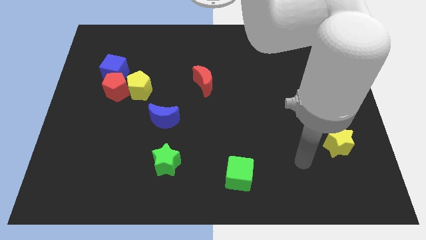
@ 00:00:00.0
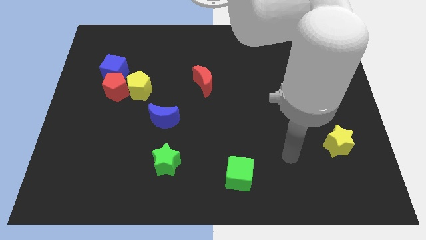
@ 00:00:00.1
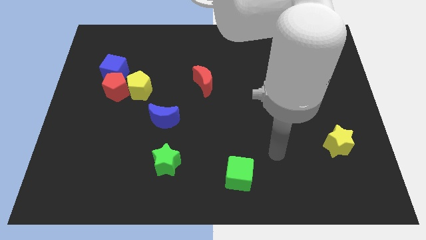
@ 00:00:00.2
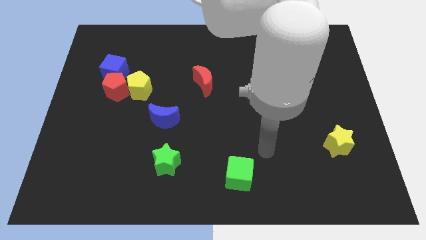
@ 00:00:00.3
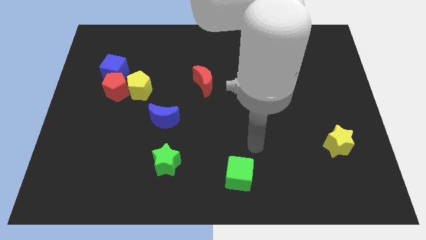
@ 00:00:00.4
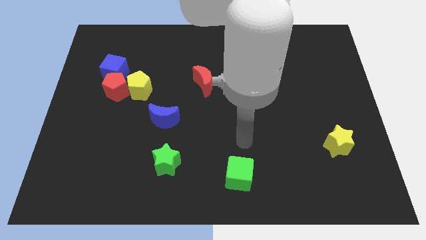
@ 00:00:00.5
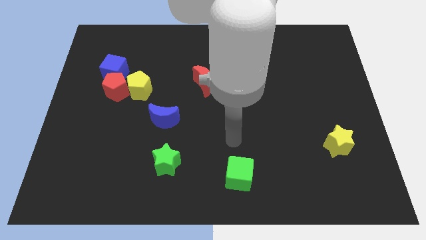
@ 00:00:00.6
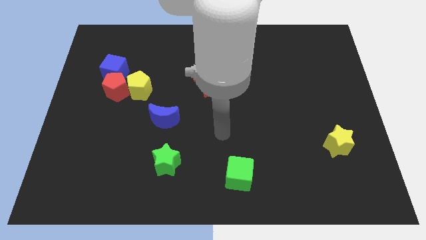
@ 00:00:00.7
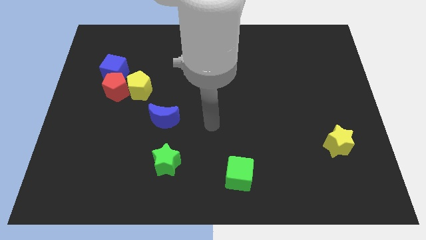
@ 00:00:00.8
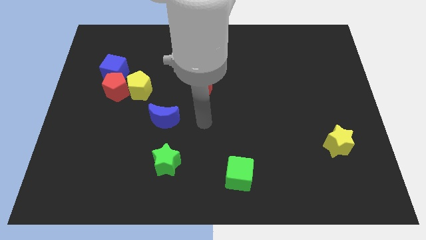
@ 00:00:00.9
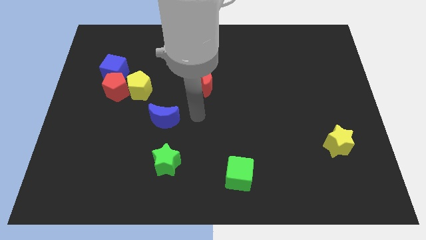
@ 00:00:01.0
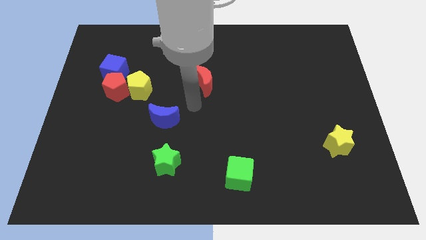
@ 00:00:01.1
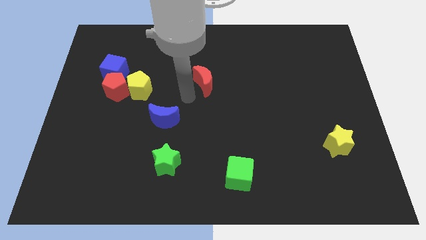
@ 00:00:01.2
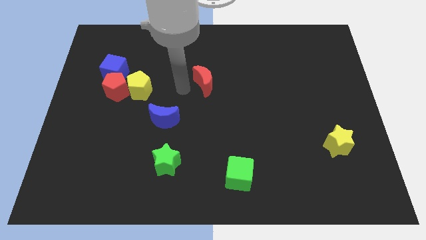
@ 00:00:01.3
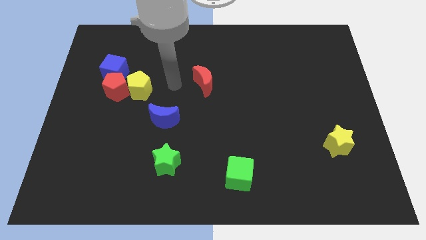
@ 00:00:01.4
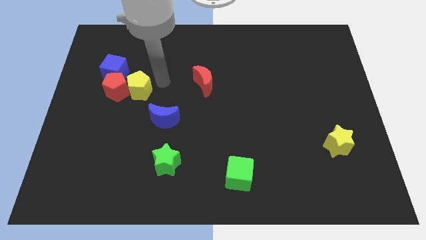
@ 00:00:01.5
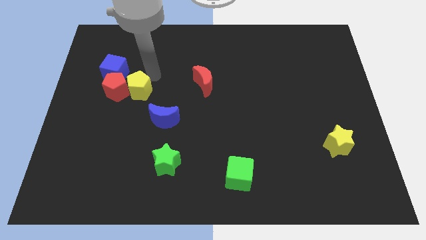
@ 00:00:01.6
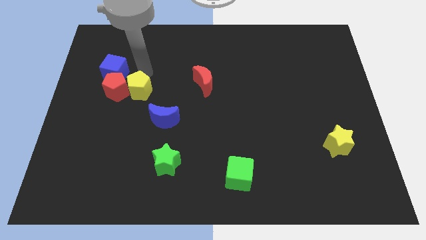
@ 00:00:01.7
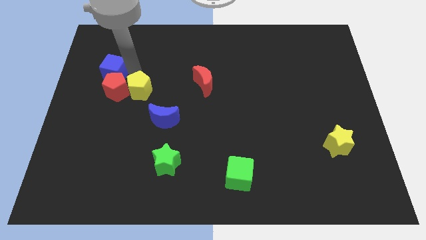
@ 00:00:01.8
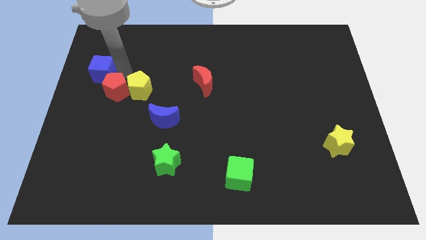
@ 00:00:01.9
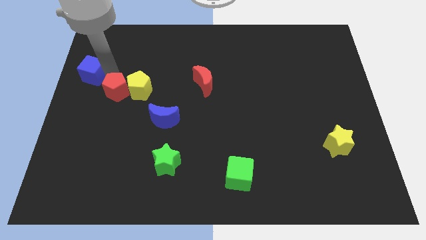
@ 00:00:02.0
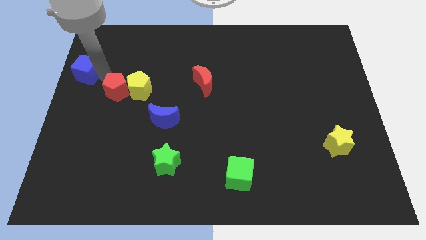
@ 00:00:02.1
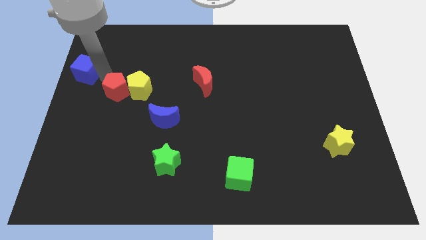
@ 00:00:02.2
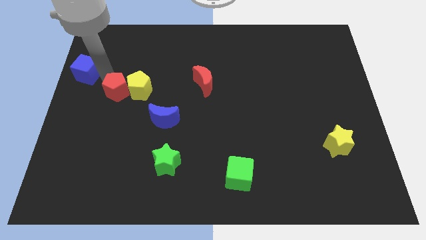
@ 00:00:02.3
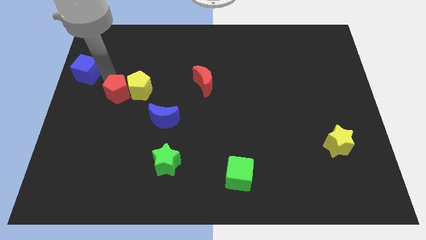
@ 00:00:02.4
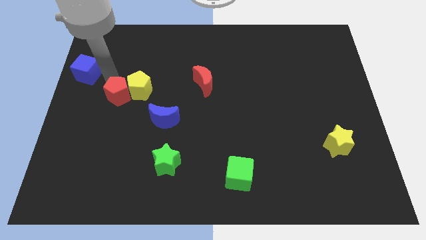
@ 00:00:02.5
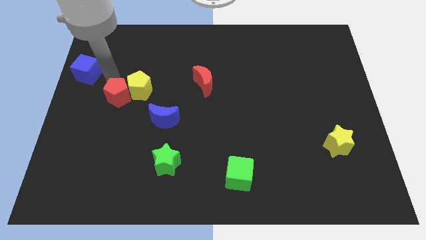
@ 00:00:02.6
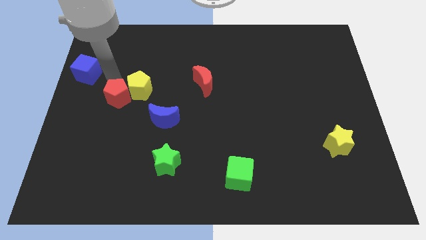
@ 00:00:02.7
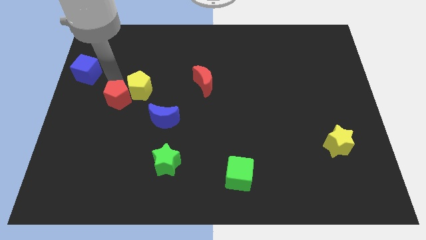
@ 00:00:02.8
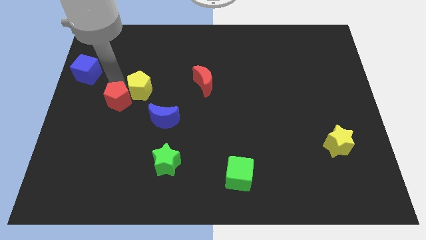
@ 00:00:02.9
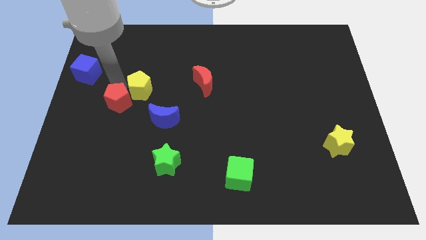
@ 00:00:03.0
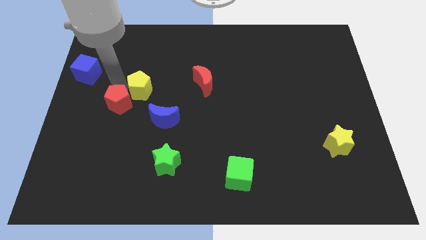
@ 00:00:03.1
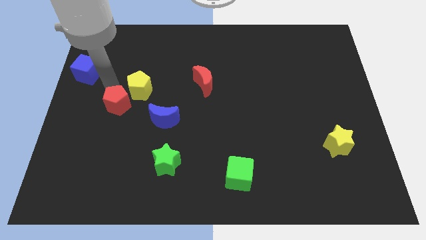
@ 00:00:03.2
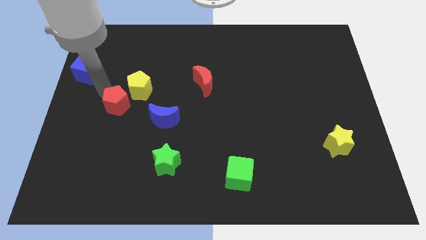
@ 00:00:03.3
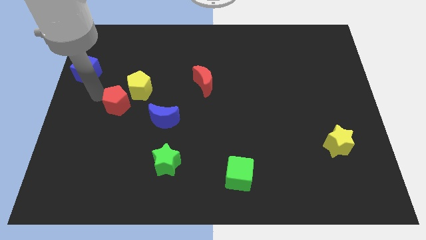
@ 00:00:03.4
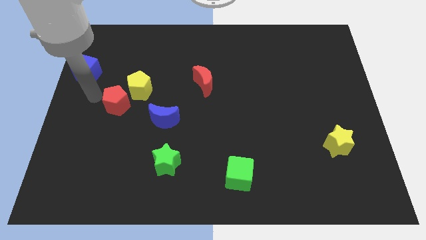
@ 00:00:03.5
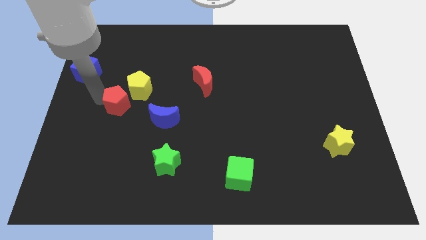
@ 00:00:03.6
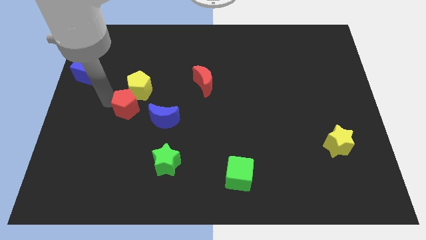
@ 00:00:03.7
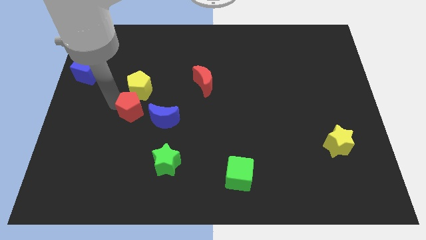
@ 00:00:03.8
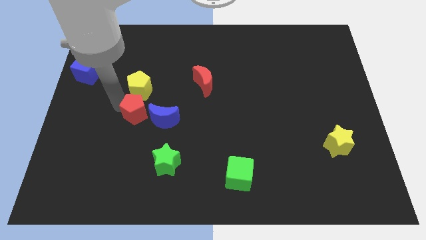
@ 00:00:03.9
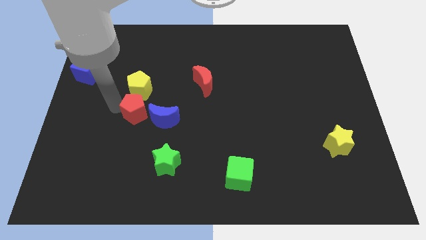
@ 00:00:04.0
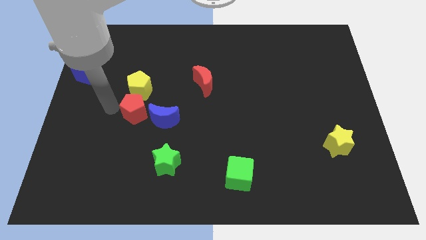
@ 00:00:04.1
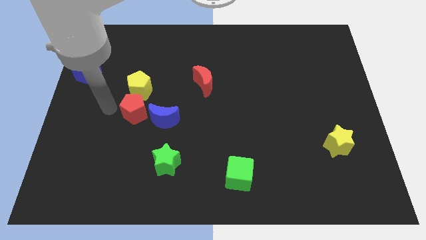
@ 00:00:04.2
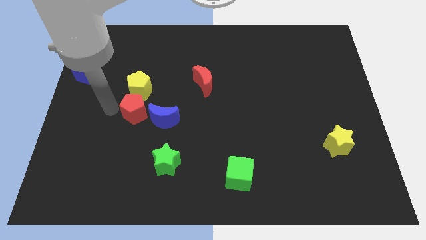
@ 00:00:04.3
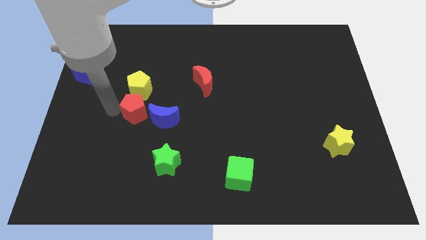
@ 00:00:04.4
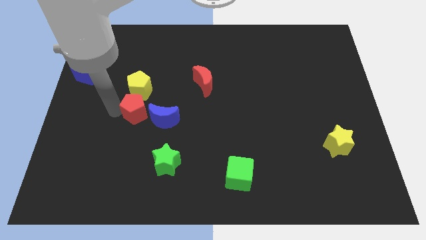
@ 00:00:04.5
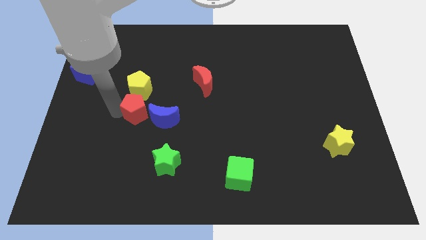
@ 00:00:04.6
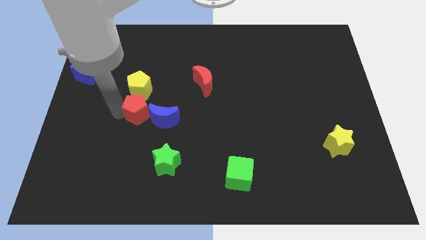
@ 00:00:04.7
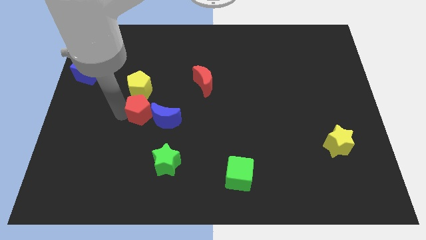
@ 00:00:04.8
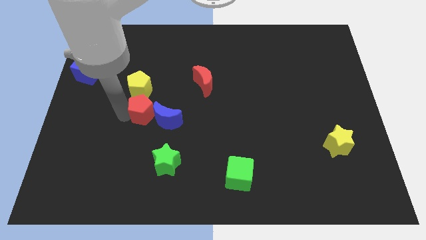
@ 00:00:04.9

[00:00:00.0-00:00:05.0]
put the red pentagon close to the blue moon

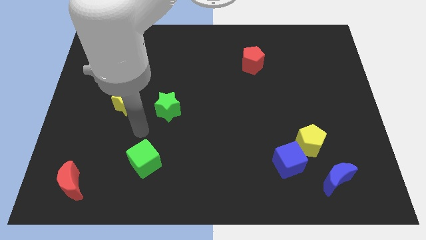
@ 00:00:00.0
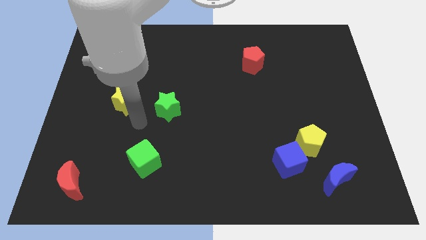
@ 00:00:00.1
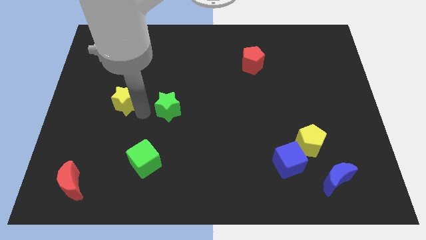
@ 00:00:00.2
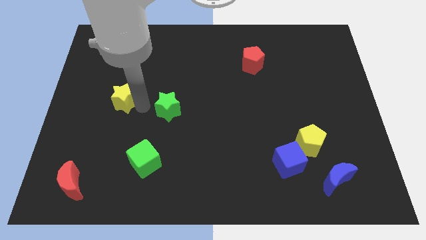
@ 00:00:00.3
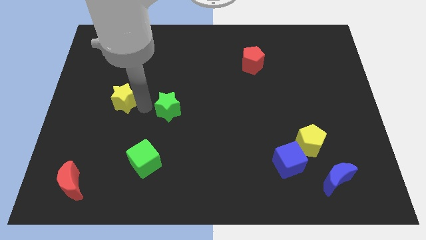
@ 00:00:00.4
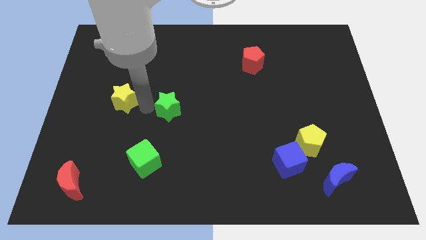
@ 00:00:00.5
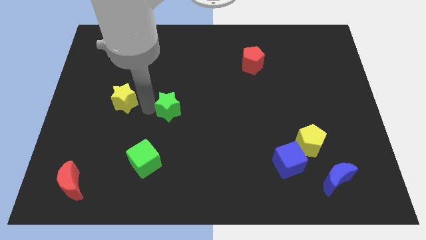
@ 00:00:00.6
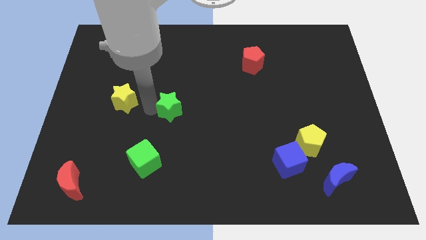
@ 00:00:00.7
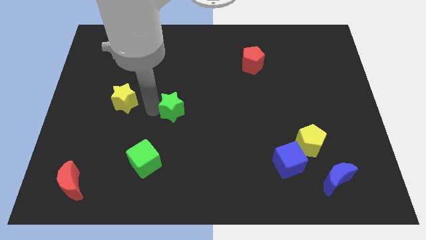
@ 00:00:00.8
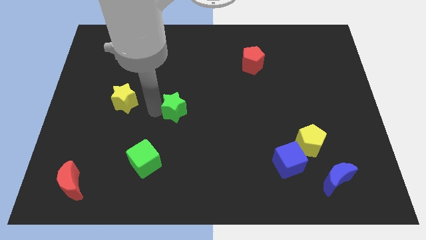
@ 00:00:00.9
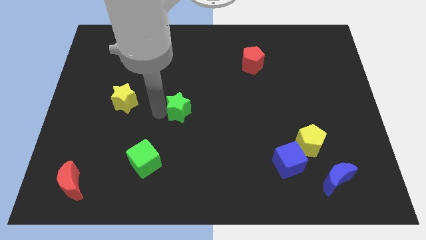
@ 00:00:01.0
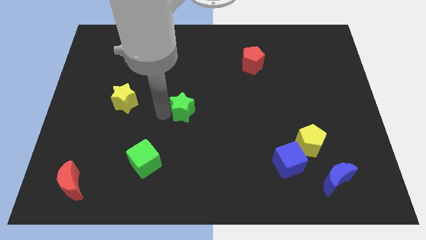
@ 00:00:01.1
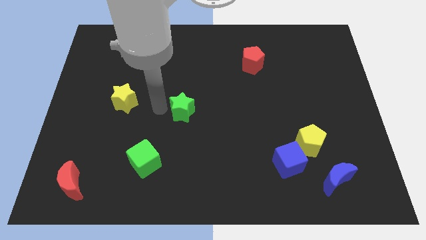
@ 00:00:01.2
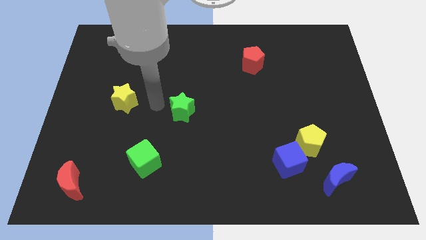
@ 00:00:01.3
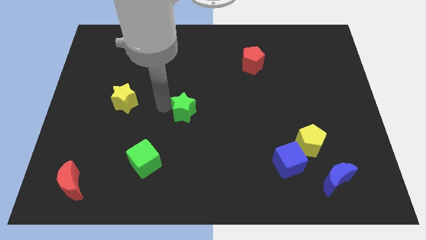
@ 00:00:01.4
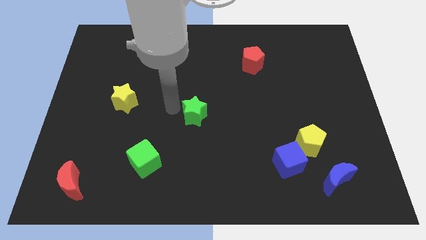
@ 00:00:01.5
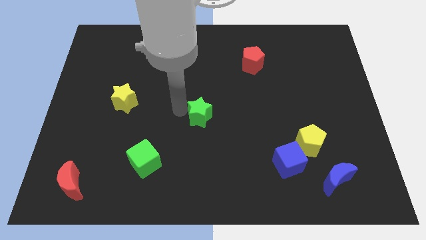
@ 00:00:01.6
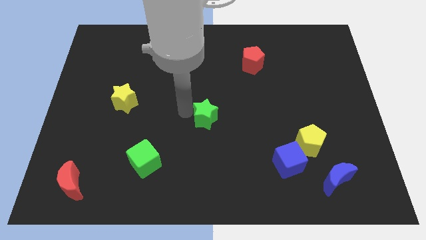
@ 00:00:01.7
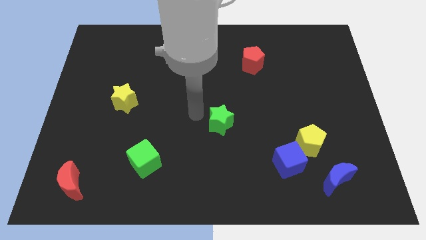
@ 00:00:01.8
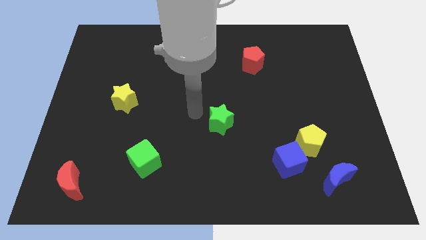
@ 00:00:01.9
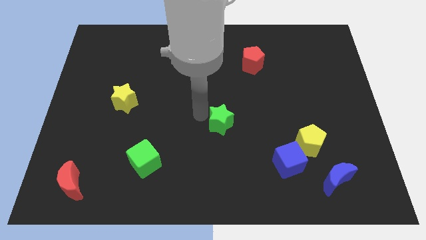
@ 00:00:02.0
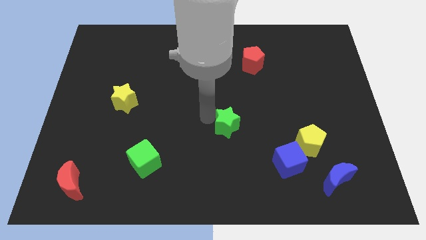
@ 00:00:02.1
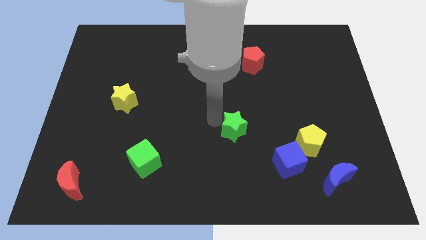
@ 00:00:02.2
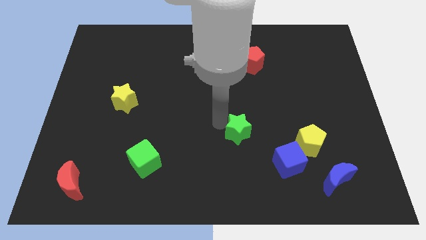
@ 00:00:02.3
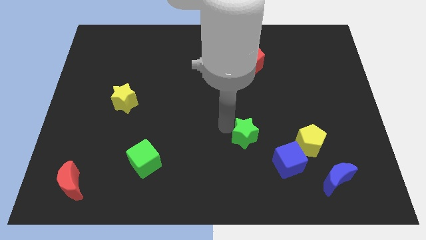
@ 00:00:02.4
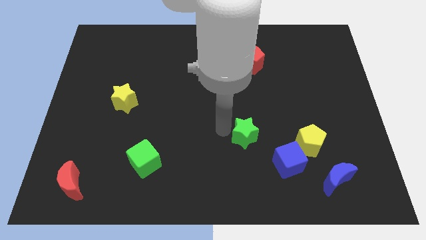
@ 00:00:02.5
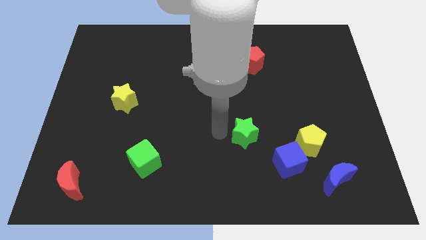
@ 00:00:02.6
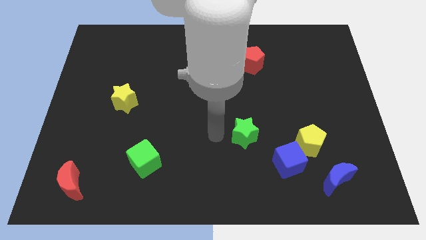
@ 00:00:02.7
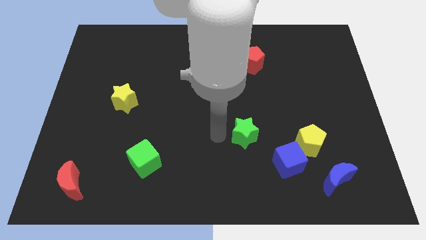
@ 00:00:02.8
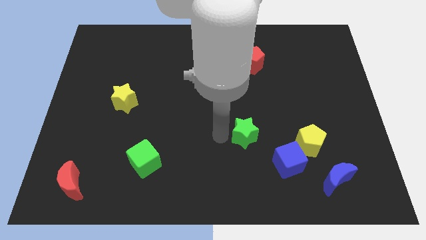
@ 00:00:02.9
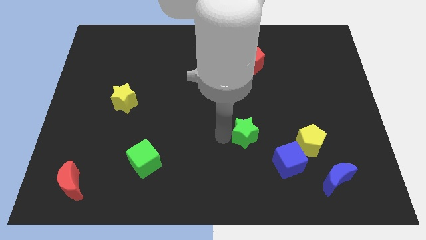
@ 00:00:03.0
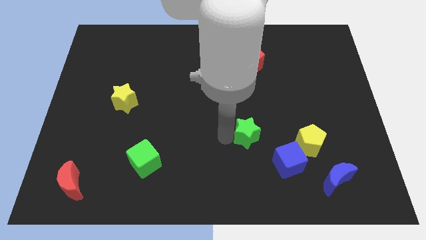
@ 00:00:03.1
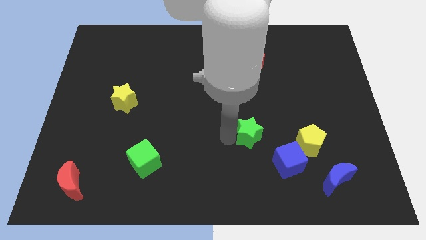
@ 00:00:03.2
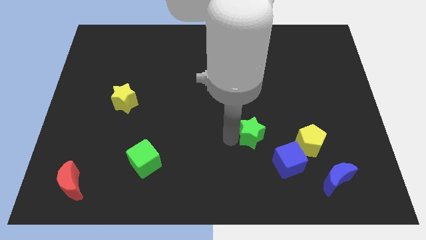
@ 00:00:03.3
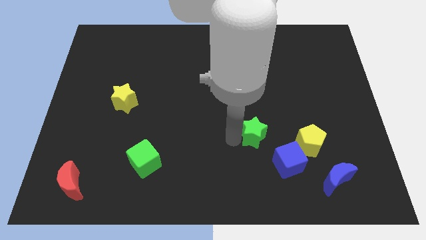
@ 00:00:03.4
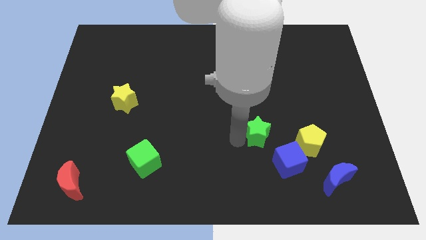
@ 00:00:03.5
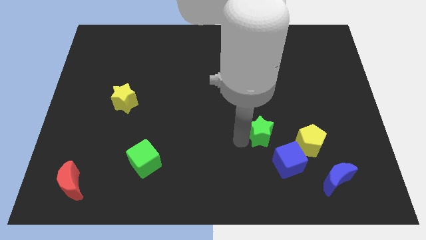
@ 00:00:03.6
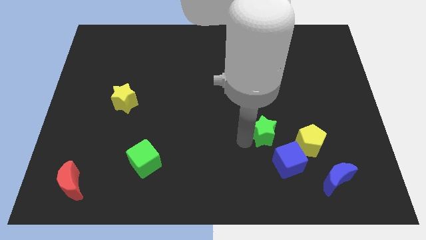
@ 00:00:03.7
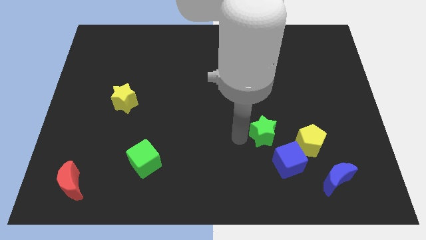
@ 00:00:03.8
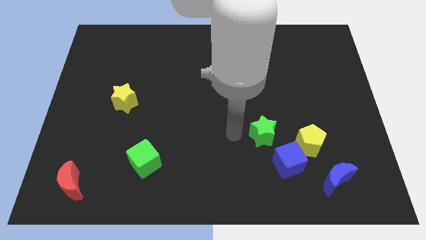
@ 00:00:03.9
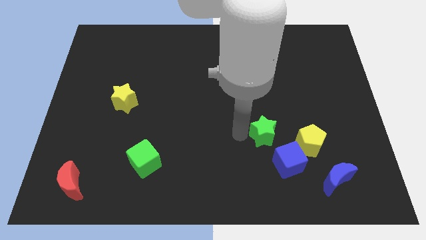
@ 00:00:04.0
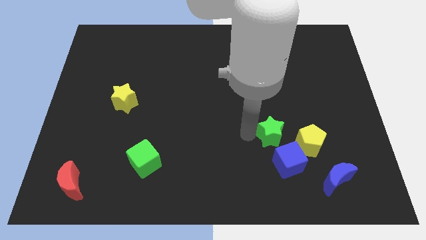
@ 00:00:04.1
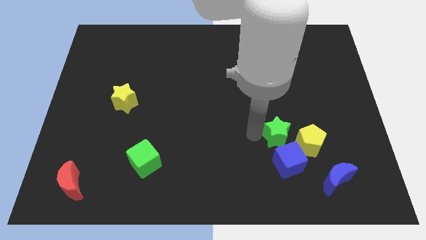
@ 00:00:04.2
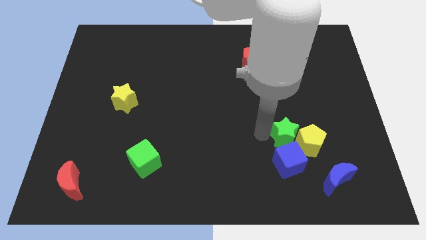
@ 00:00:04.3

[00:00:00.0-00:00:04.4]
put the green star close to the yellow pentagon
